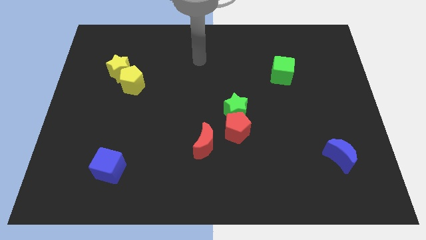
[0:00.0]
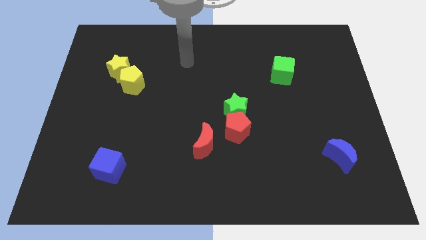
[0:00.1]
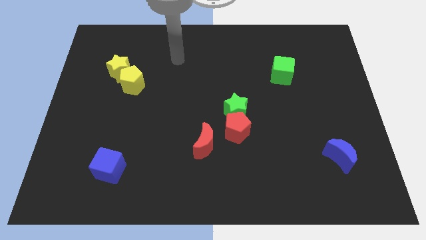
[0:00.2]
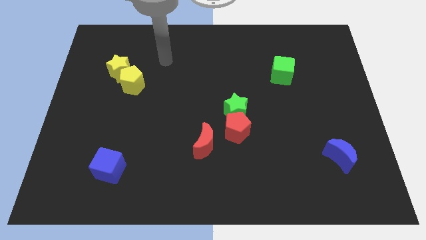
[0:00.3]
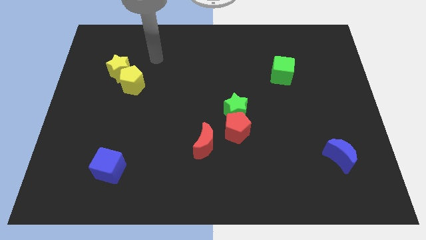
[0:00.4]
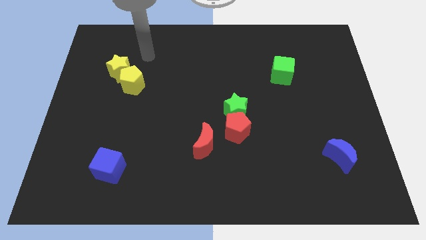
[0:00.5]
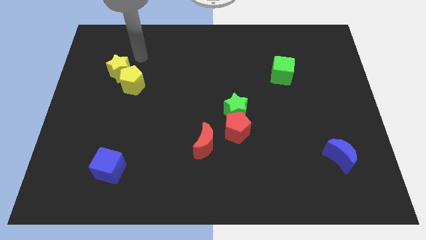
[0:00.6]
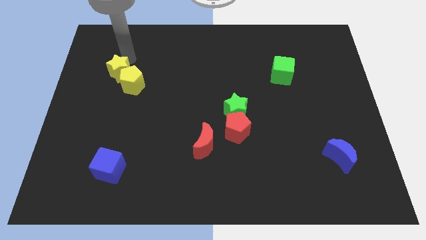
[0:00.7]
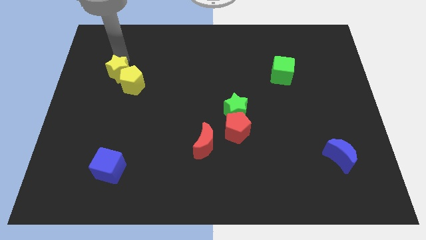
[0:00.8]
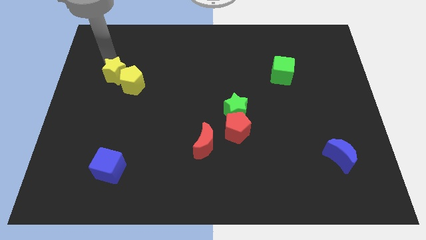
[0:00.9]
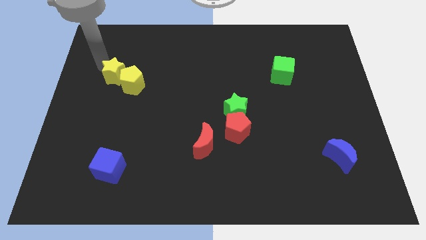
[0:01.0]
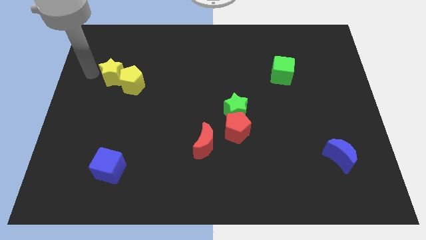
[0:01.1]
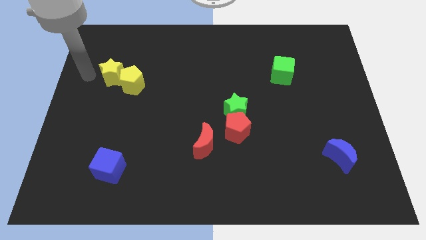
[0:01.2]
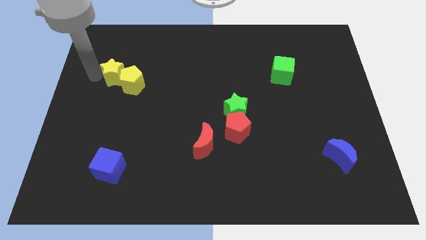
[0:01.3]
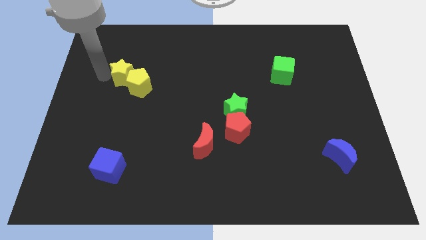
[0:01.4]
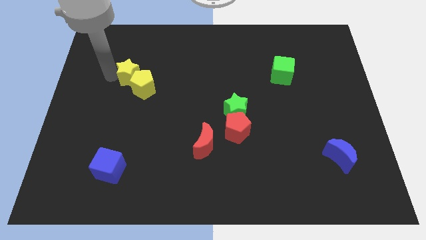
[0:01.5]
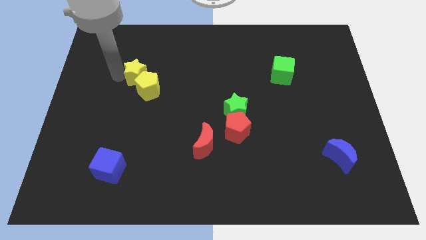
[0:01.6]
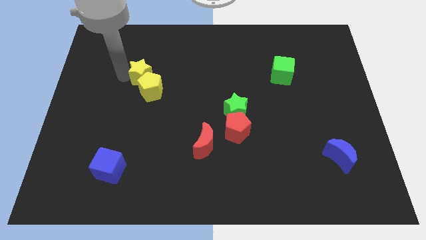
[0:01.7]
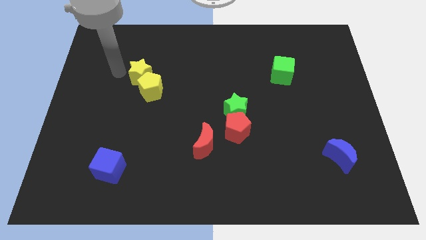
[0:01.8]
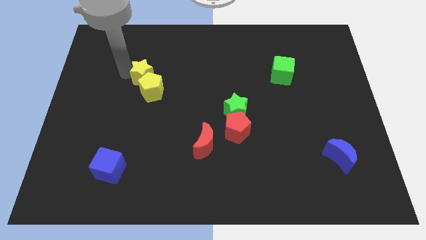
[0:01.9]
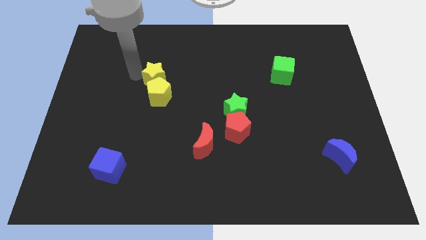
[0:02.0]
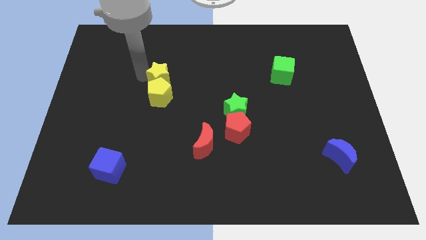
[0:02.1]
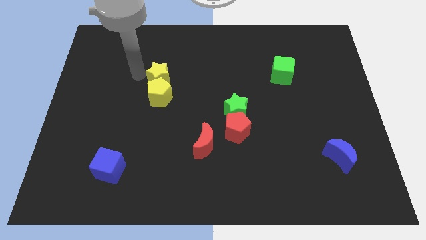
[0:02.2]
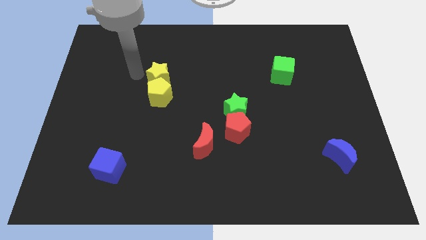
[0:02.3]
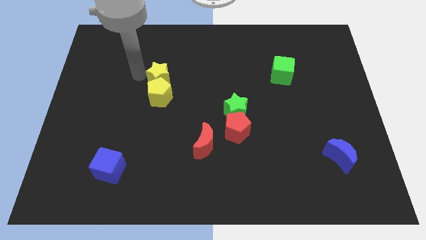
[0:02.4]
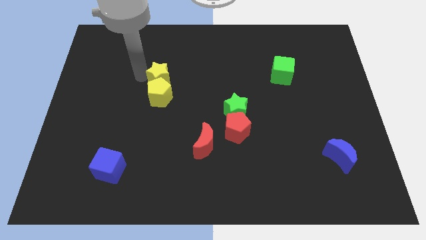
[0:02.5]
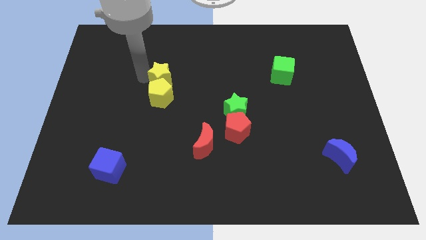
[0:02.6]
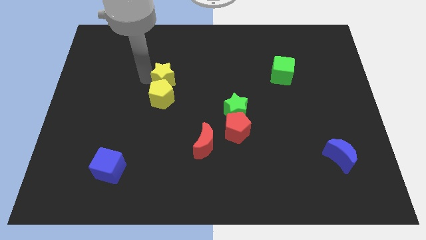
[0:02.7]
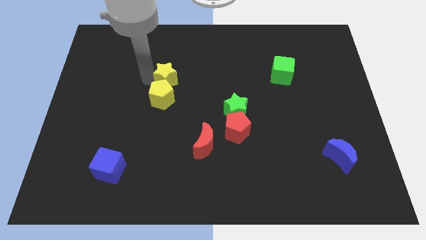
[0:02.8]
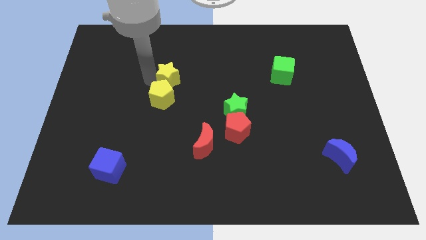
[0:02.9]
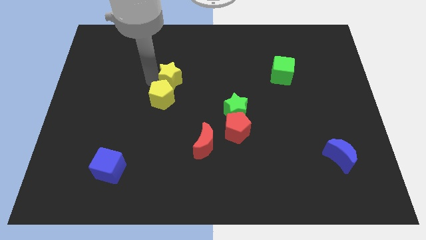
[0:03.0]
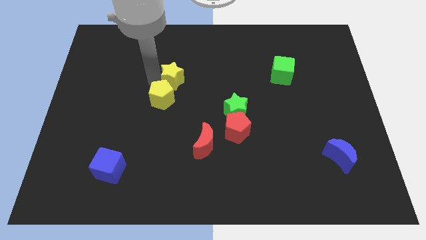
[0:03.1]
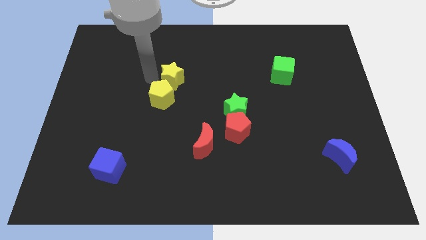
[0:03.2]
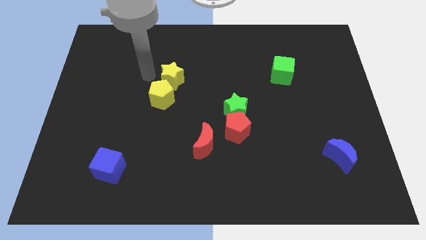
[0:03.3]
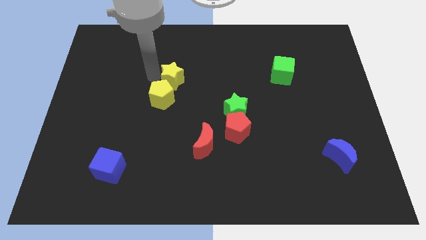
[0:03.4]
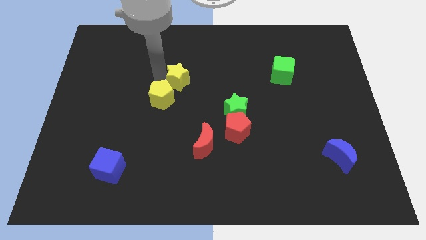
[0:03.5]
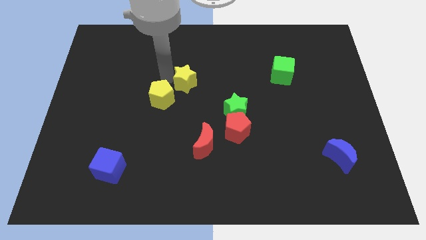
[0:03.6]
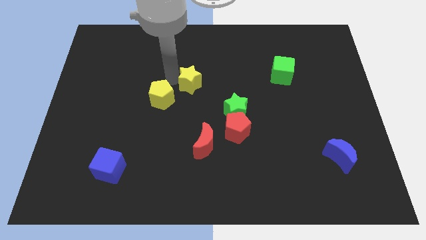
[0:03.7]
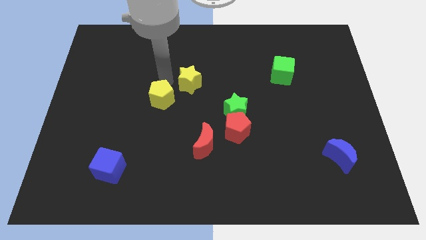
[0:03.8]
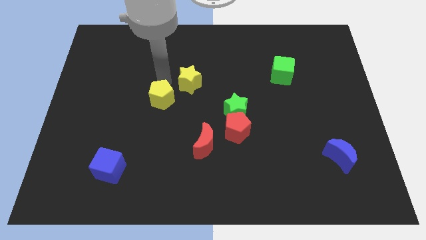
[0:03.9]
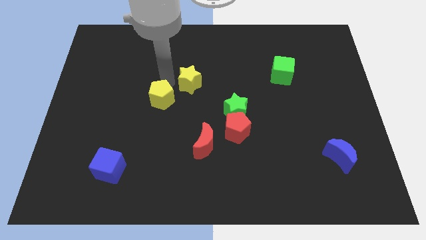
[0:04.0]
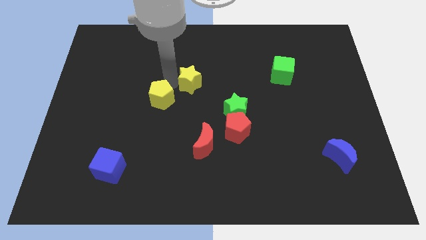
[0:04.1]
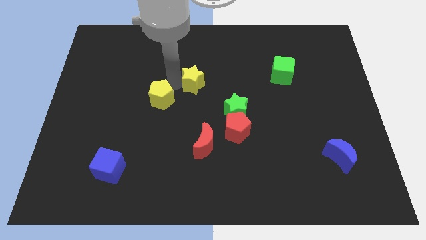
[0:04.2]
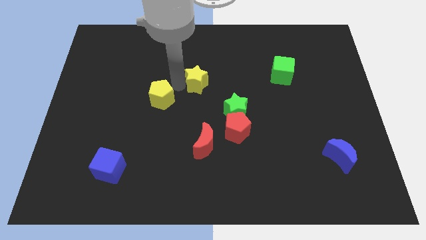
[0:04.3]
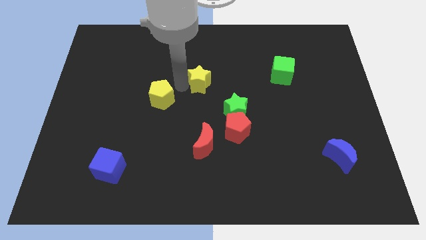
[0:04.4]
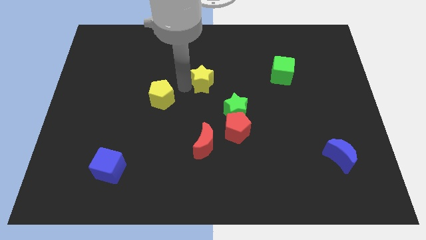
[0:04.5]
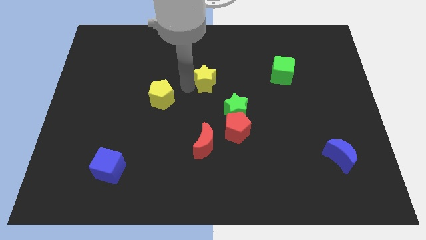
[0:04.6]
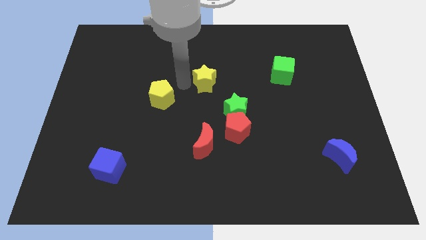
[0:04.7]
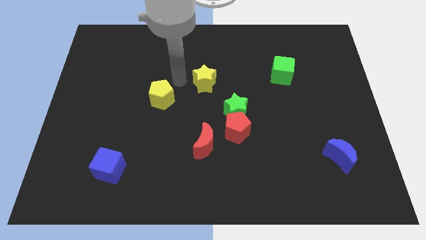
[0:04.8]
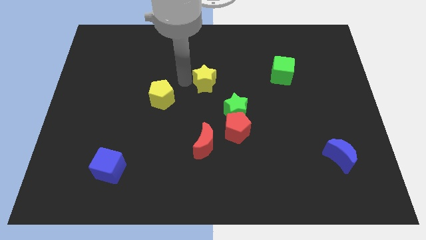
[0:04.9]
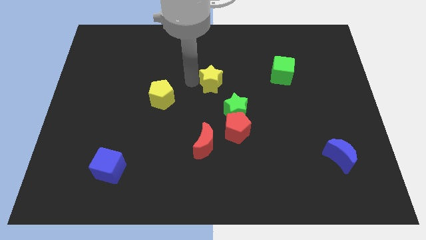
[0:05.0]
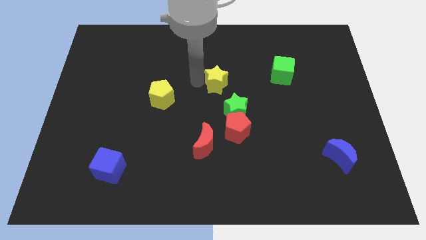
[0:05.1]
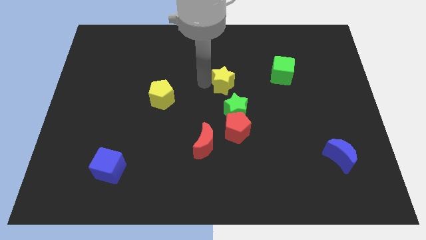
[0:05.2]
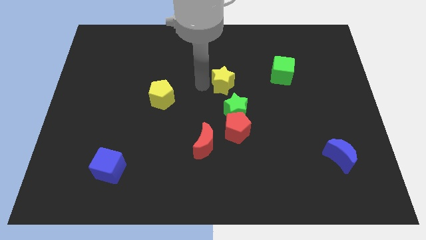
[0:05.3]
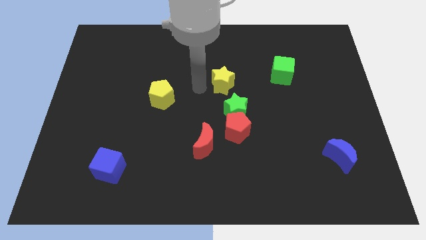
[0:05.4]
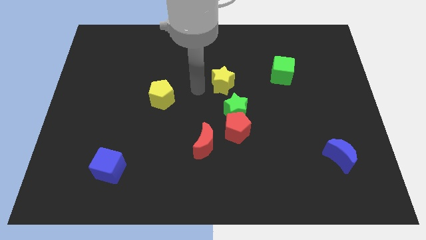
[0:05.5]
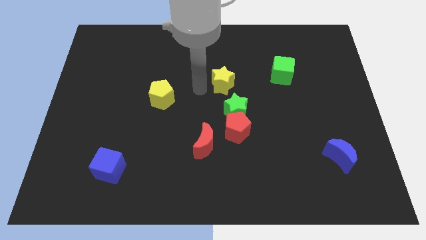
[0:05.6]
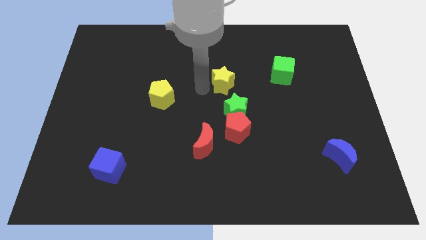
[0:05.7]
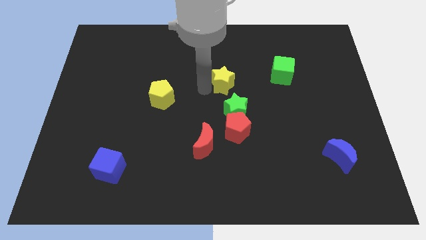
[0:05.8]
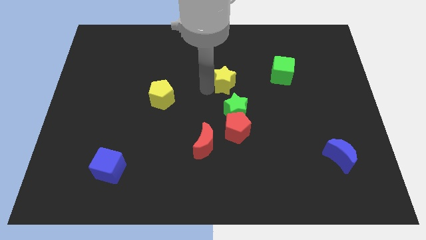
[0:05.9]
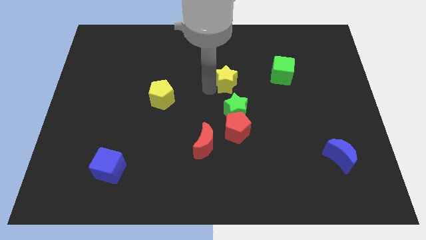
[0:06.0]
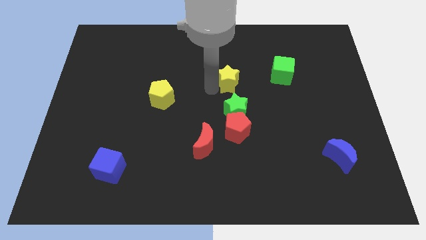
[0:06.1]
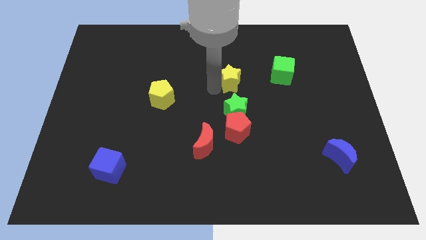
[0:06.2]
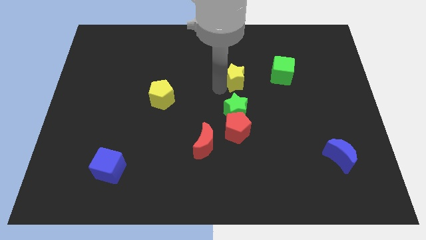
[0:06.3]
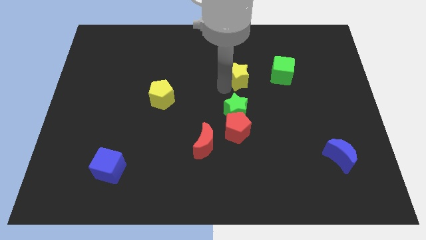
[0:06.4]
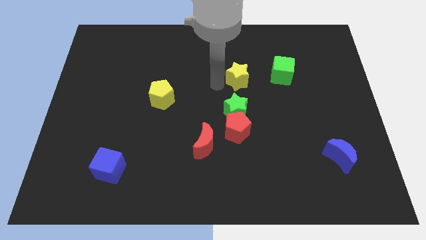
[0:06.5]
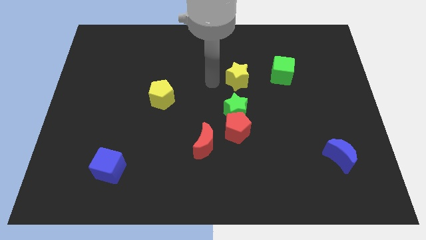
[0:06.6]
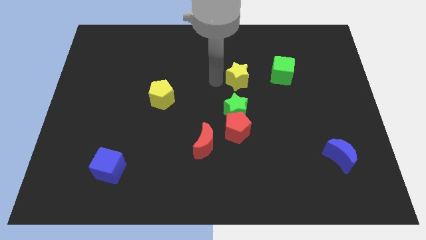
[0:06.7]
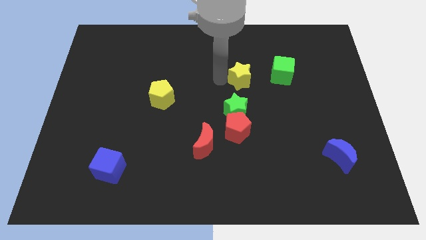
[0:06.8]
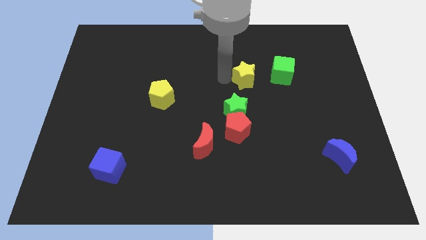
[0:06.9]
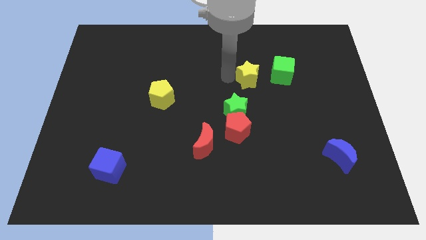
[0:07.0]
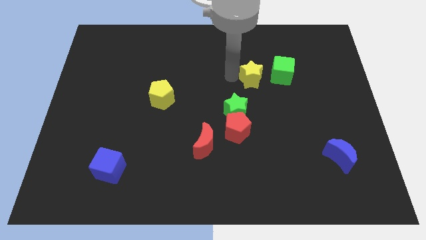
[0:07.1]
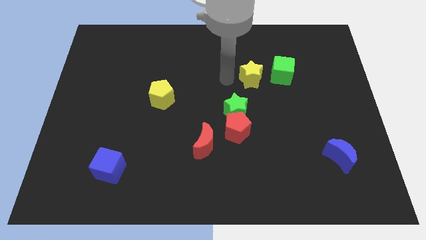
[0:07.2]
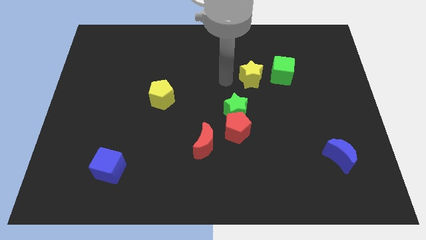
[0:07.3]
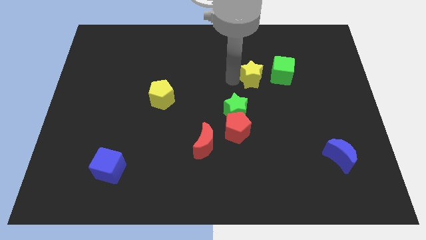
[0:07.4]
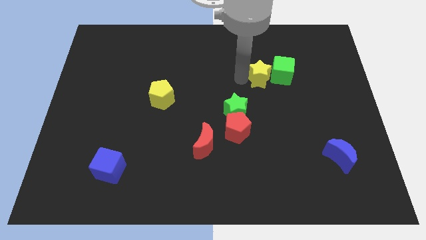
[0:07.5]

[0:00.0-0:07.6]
push the yellow star towards the green cube
